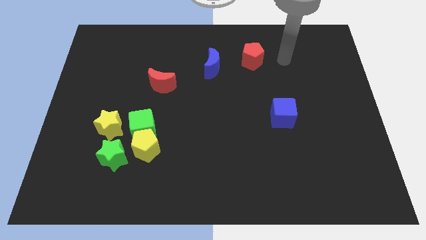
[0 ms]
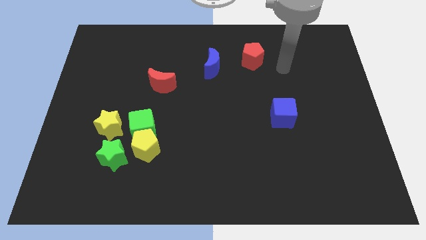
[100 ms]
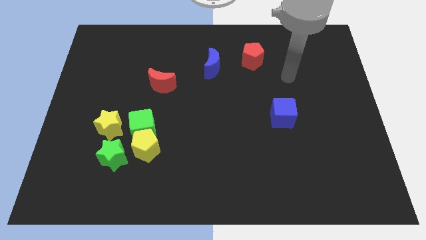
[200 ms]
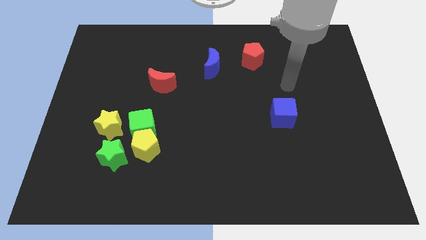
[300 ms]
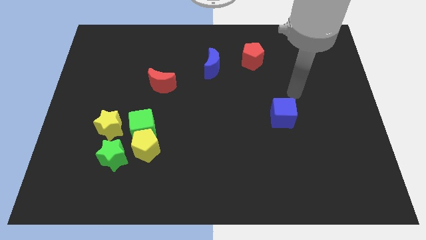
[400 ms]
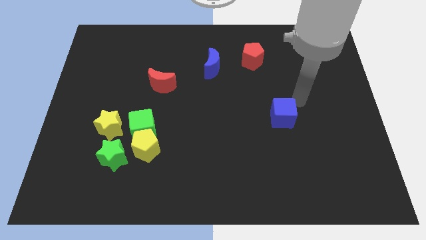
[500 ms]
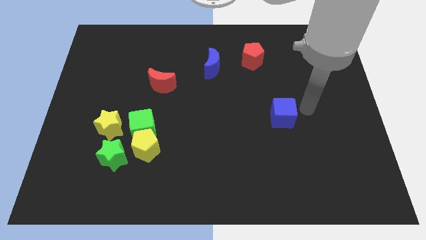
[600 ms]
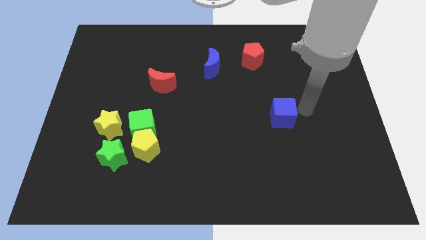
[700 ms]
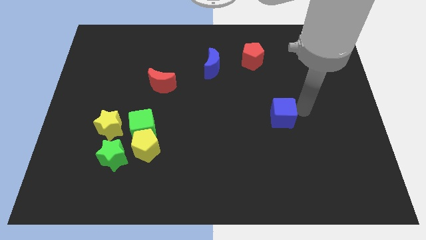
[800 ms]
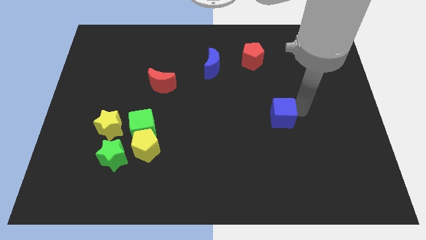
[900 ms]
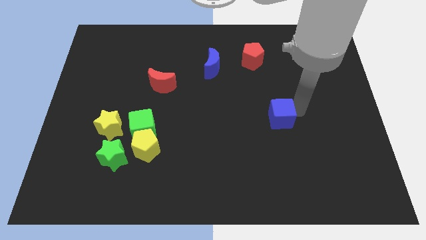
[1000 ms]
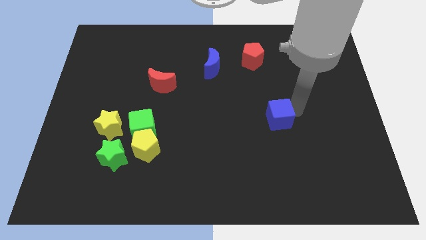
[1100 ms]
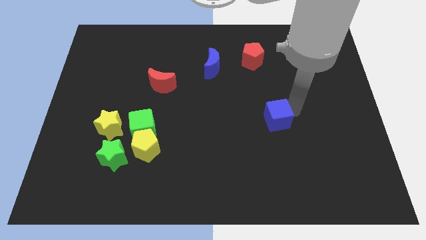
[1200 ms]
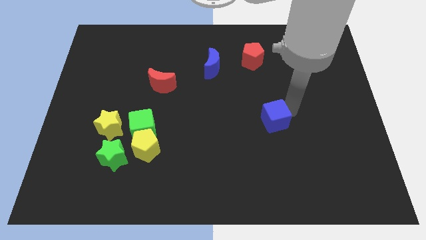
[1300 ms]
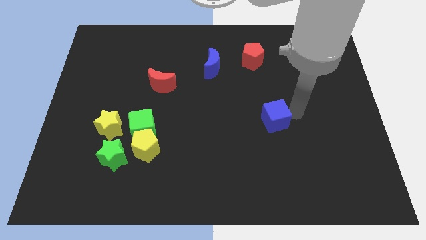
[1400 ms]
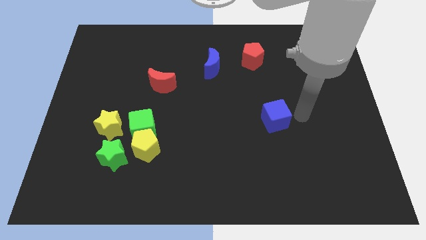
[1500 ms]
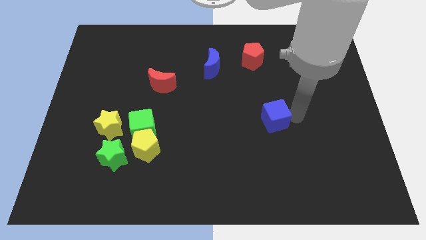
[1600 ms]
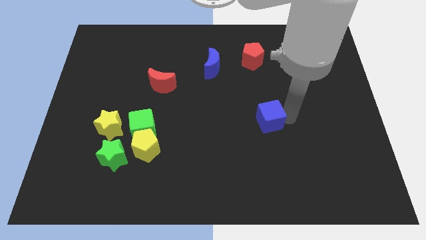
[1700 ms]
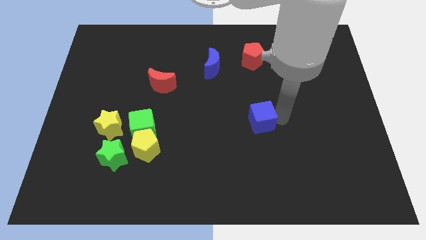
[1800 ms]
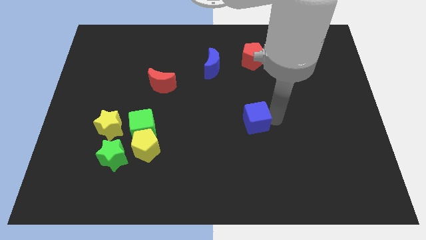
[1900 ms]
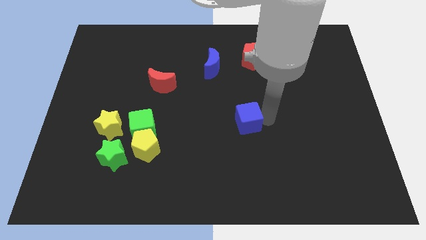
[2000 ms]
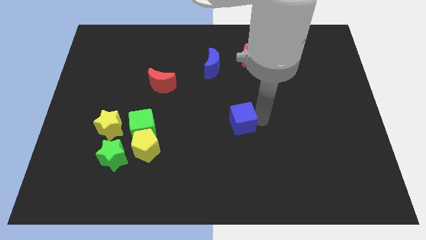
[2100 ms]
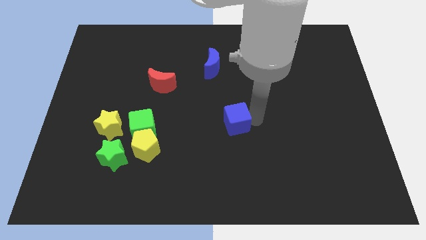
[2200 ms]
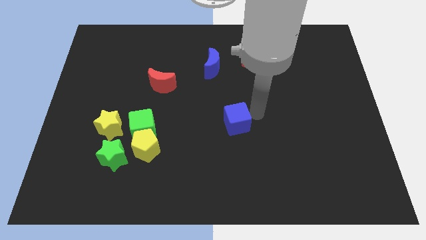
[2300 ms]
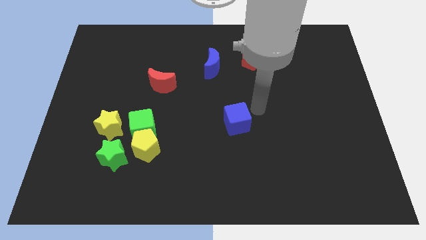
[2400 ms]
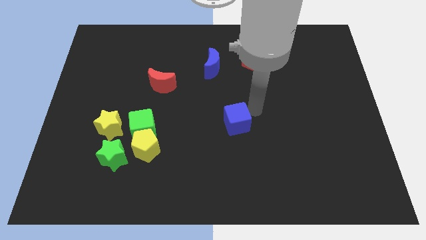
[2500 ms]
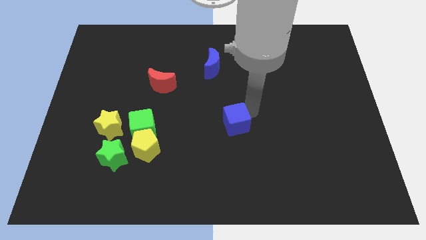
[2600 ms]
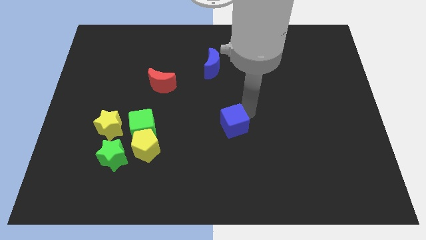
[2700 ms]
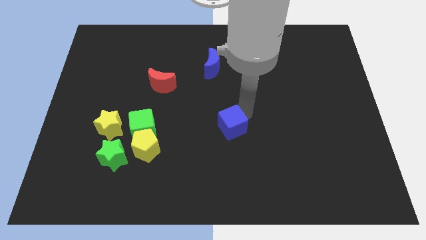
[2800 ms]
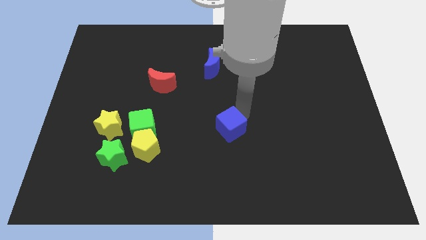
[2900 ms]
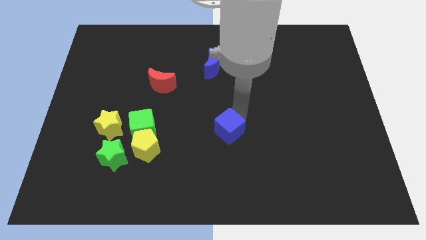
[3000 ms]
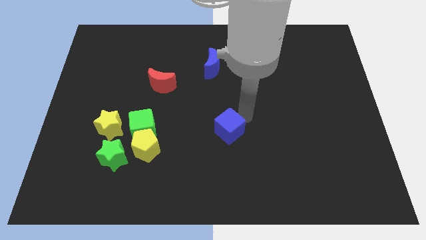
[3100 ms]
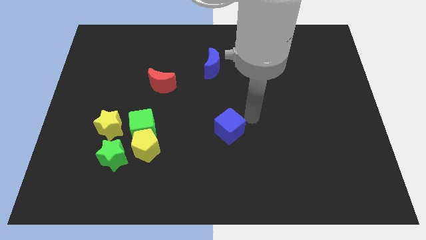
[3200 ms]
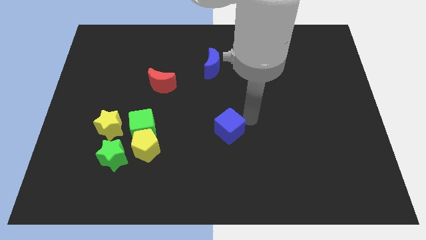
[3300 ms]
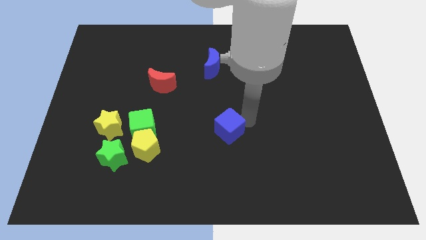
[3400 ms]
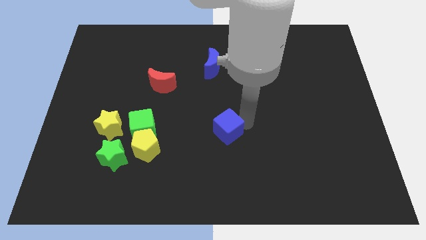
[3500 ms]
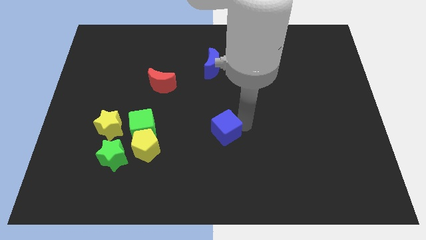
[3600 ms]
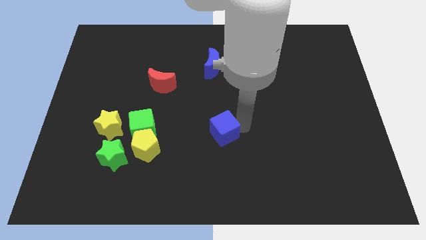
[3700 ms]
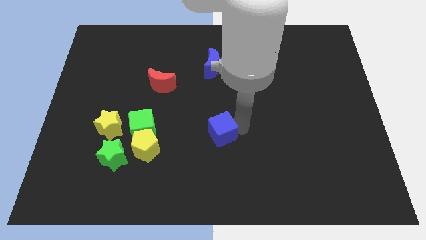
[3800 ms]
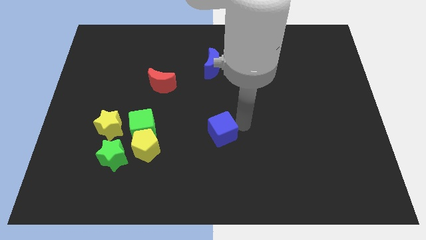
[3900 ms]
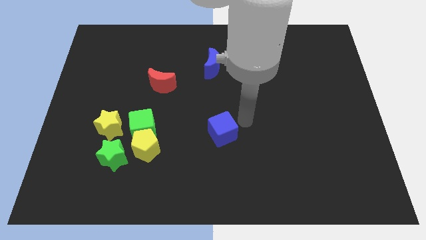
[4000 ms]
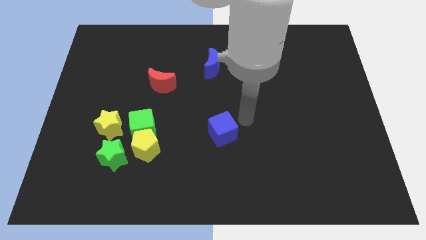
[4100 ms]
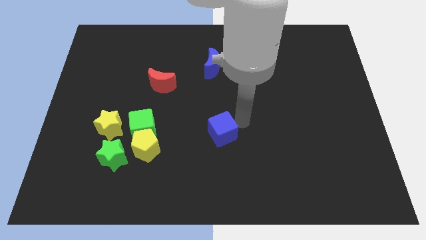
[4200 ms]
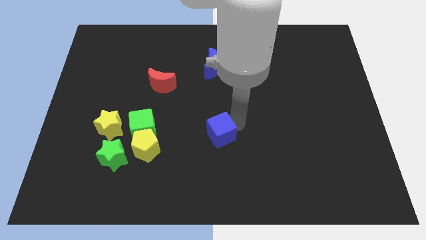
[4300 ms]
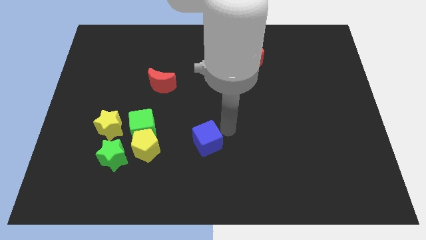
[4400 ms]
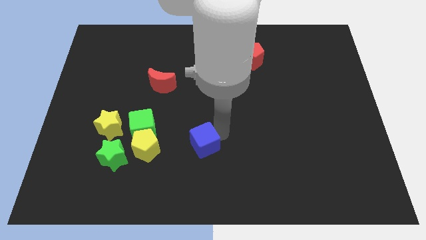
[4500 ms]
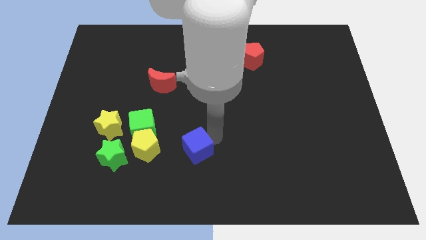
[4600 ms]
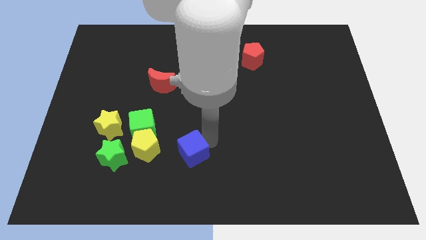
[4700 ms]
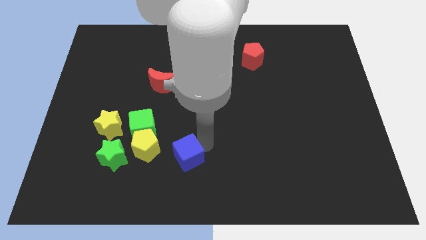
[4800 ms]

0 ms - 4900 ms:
push the blue cube right of the green star

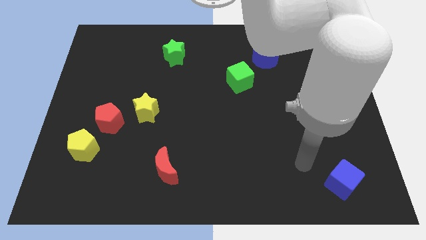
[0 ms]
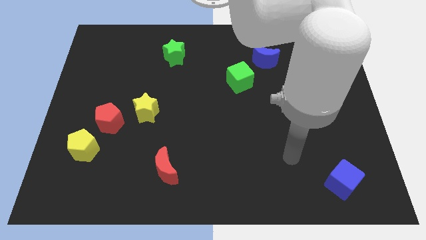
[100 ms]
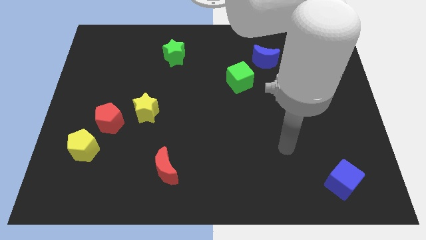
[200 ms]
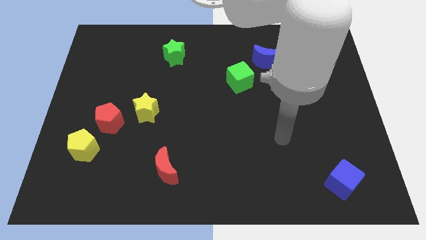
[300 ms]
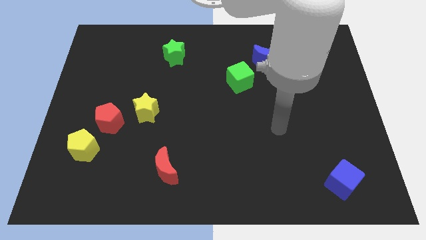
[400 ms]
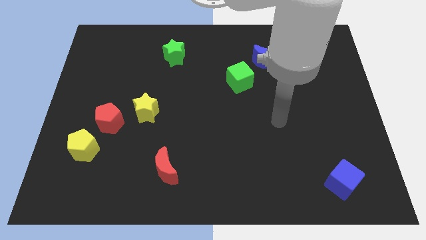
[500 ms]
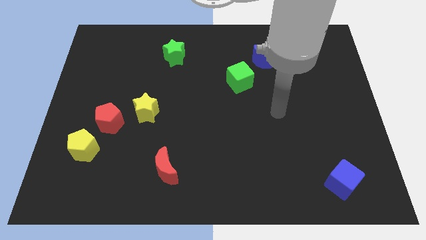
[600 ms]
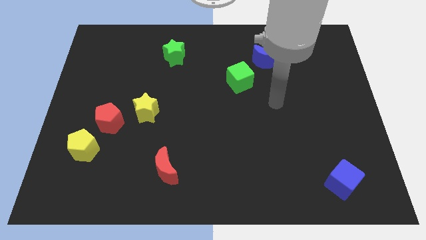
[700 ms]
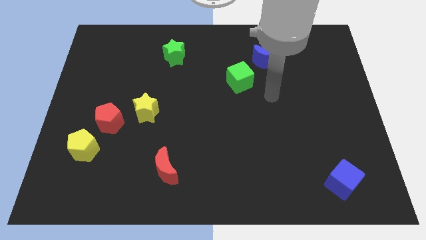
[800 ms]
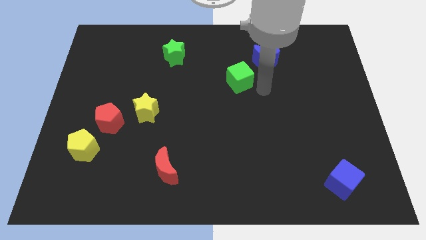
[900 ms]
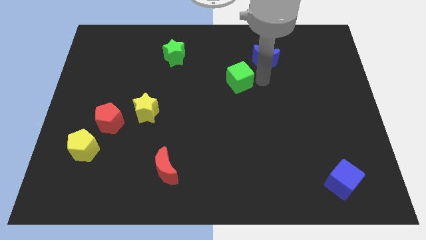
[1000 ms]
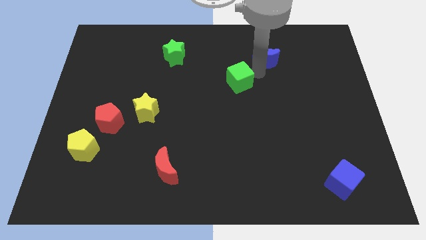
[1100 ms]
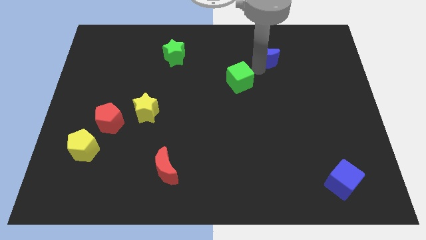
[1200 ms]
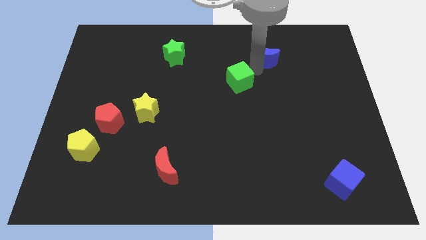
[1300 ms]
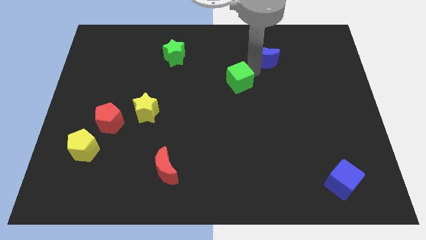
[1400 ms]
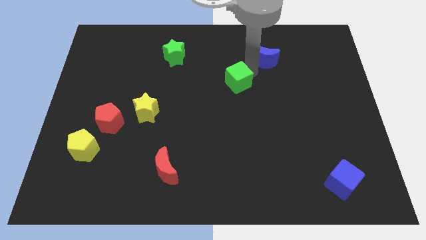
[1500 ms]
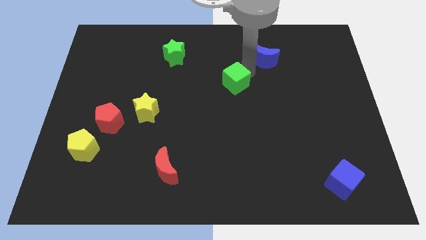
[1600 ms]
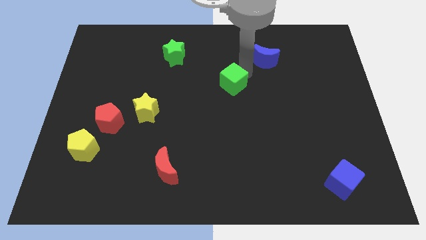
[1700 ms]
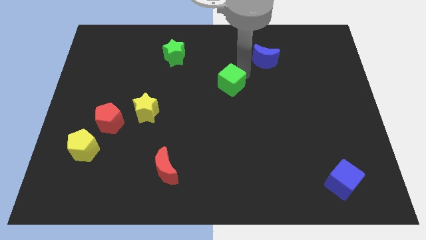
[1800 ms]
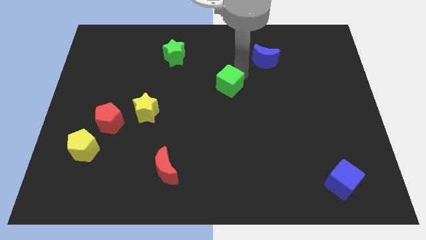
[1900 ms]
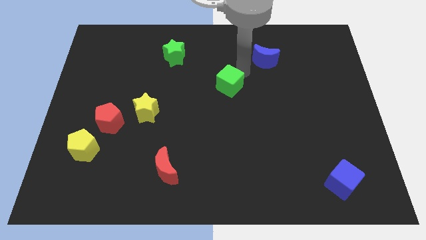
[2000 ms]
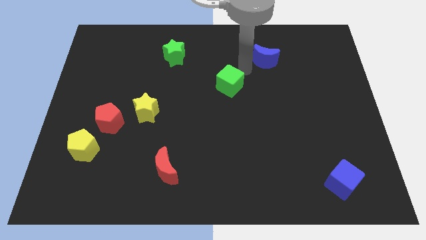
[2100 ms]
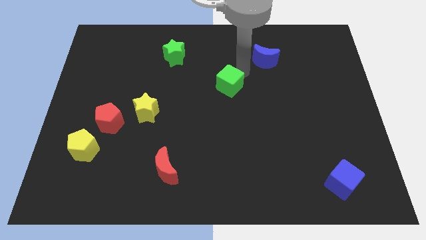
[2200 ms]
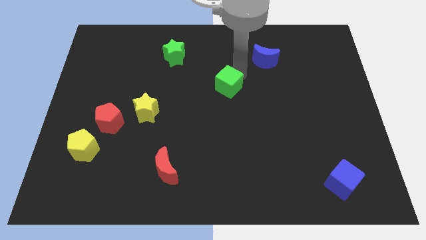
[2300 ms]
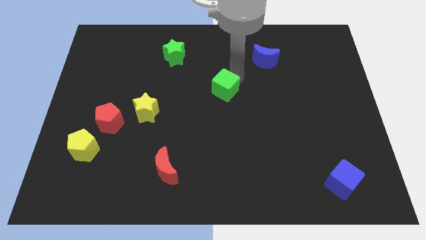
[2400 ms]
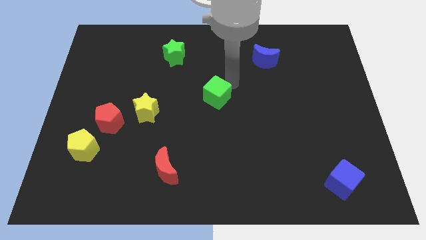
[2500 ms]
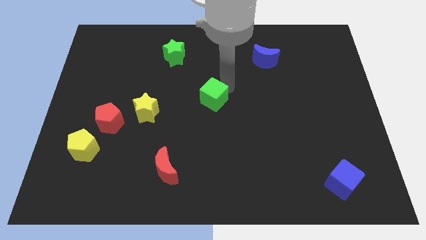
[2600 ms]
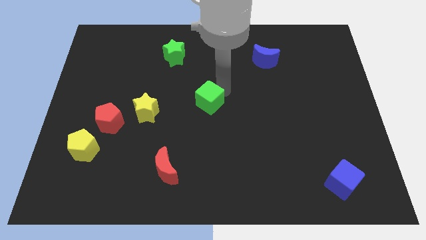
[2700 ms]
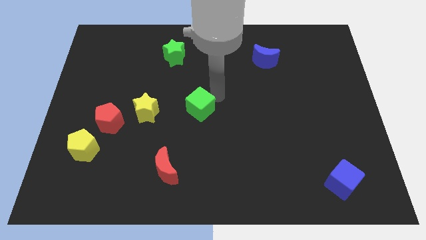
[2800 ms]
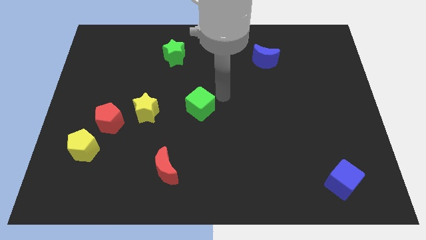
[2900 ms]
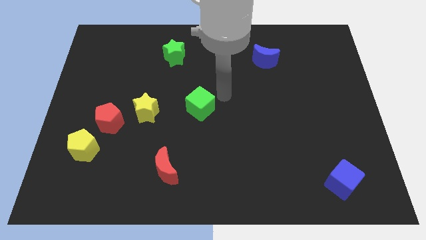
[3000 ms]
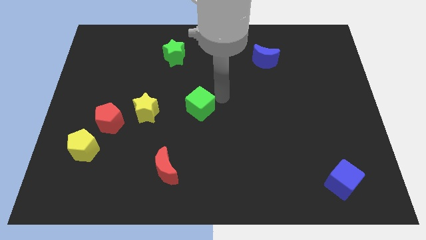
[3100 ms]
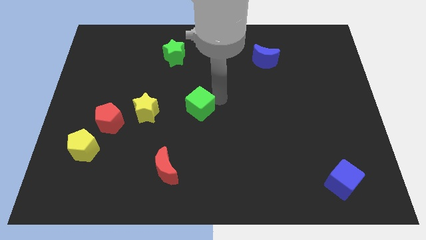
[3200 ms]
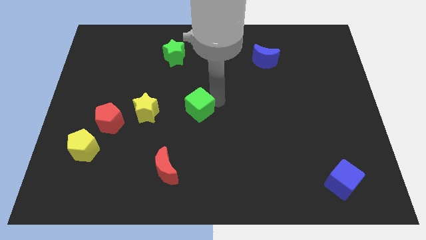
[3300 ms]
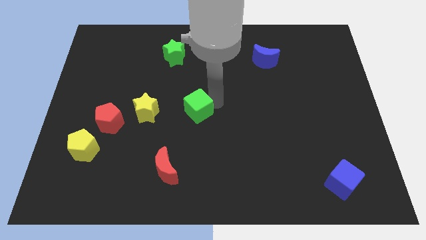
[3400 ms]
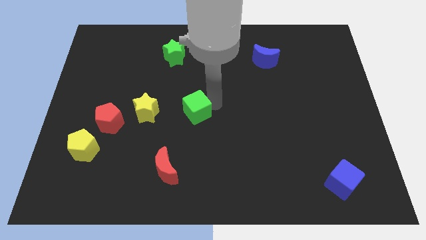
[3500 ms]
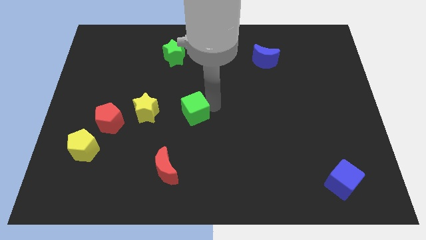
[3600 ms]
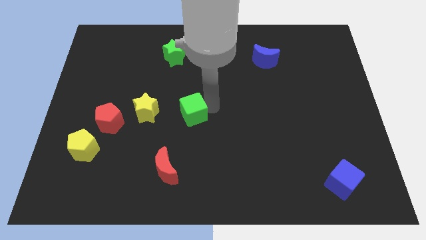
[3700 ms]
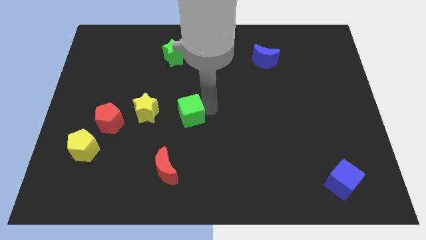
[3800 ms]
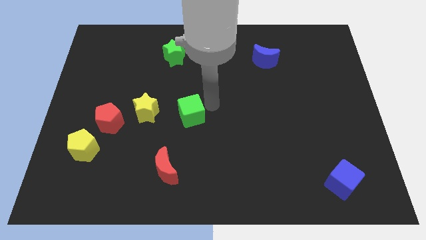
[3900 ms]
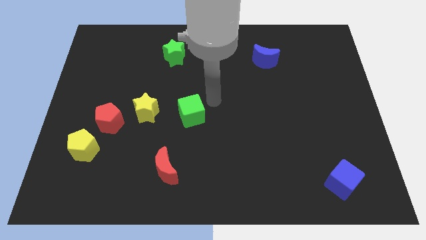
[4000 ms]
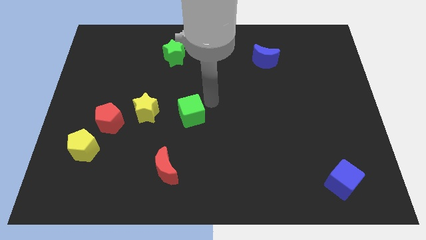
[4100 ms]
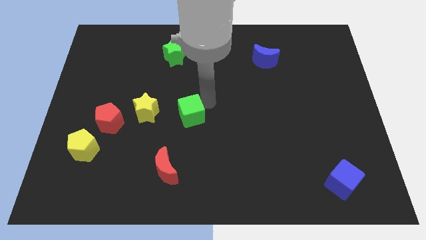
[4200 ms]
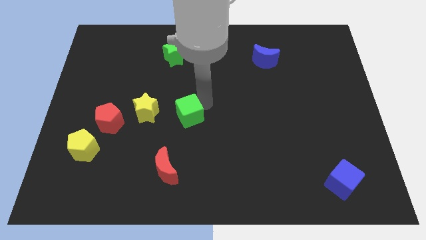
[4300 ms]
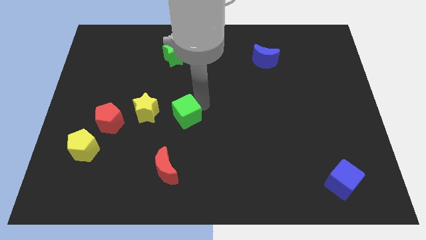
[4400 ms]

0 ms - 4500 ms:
push the green cube above the red moon
